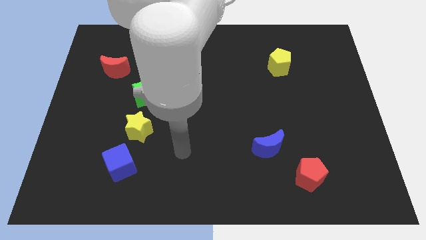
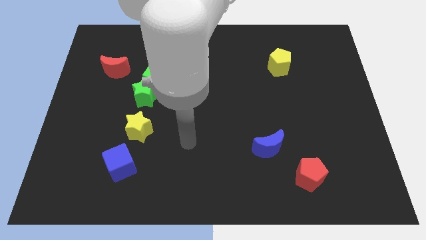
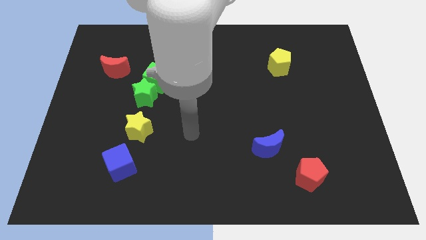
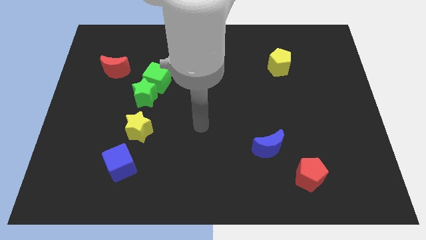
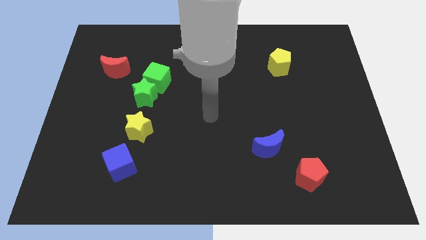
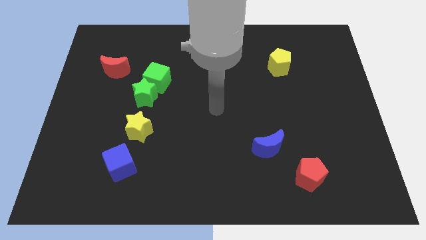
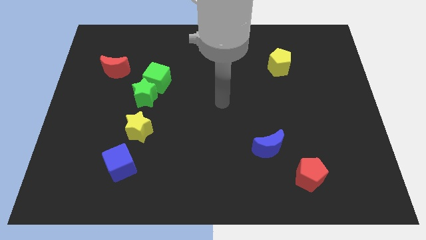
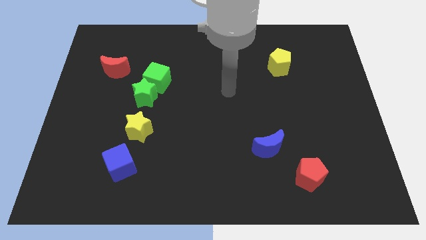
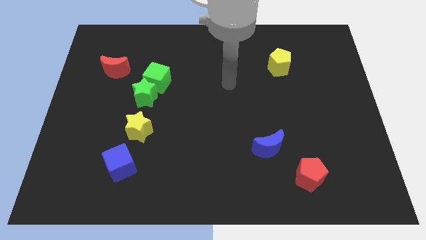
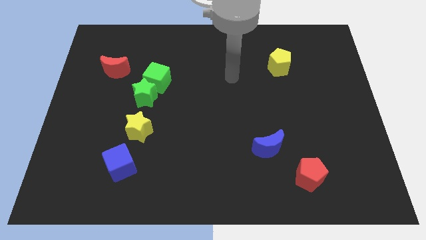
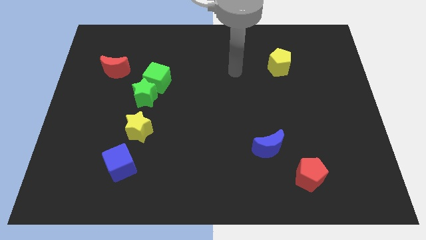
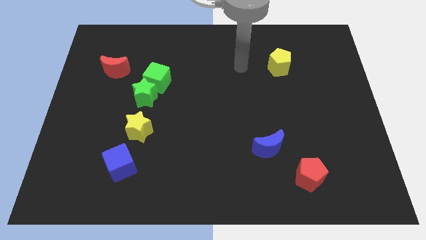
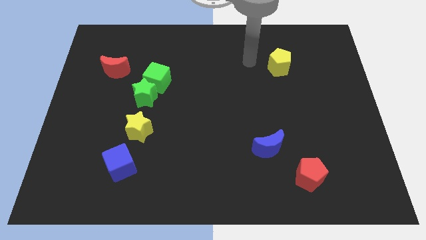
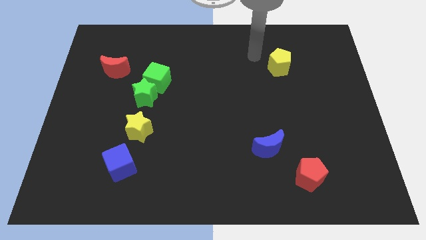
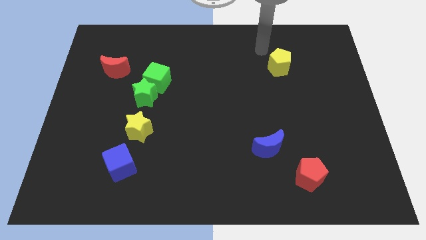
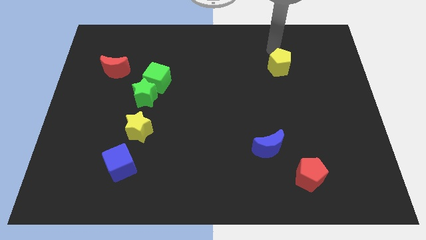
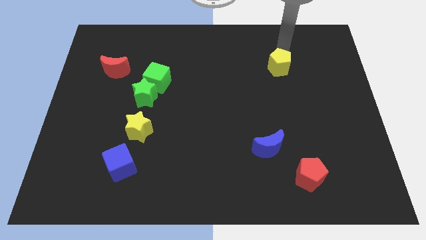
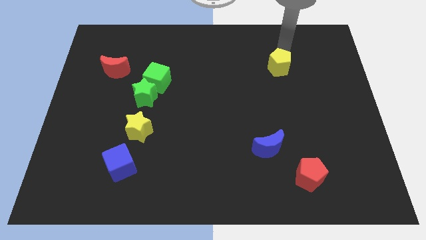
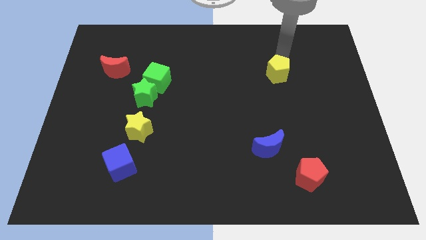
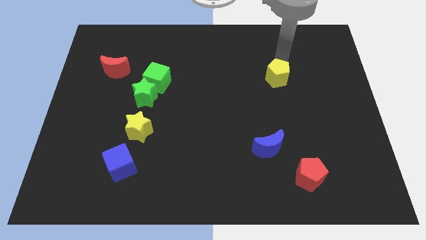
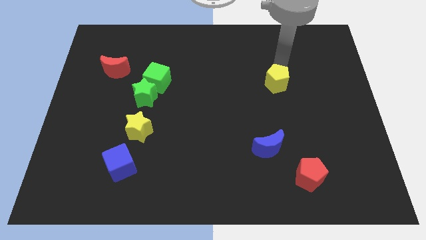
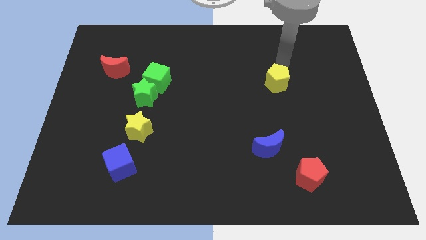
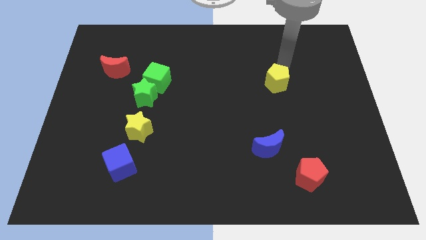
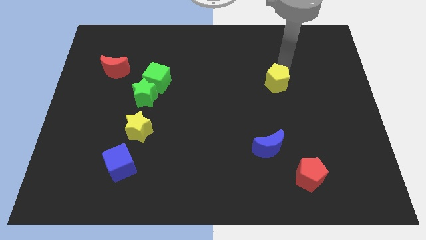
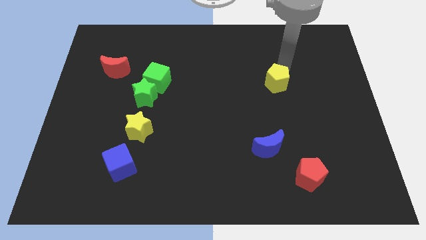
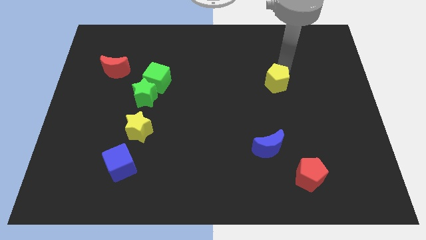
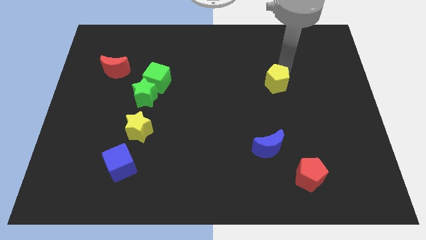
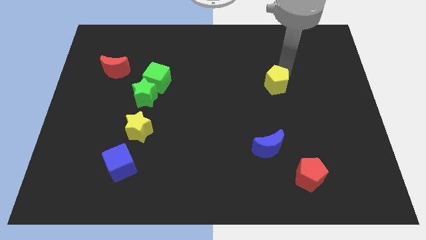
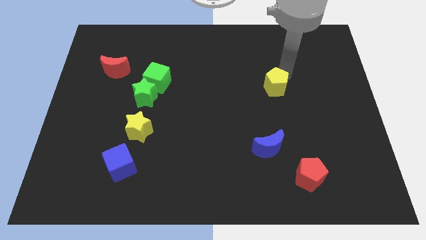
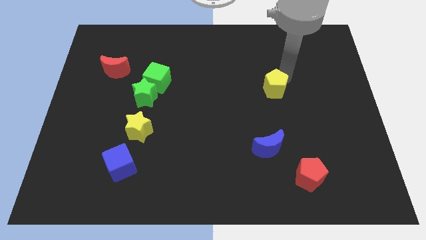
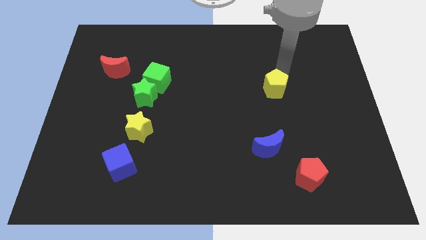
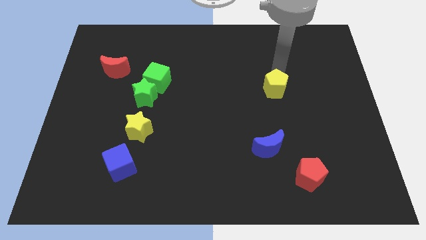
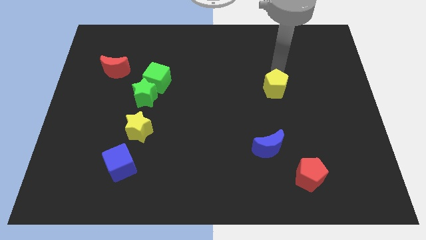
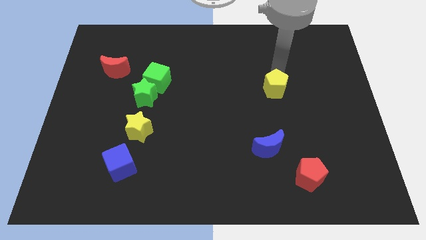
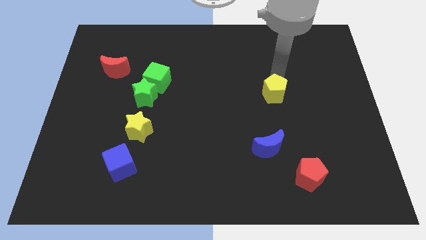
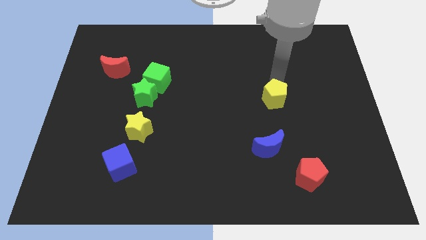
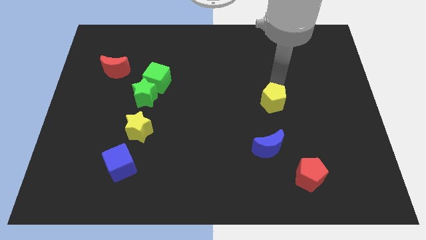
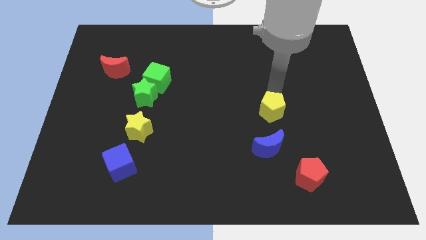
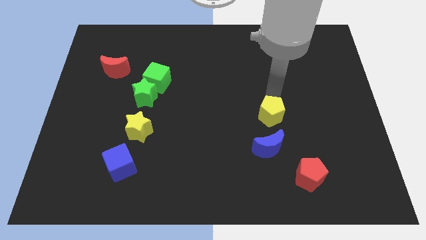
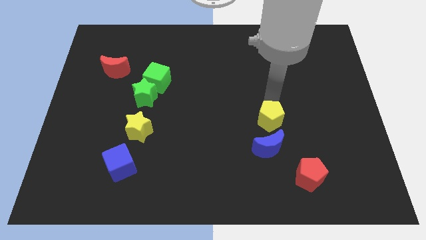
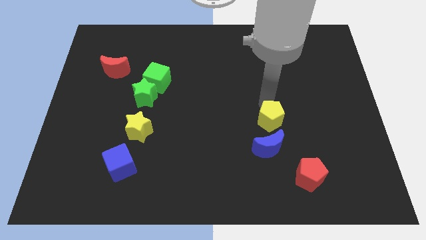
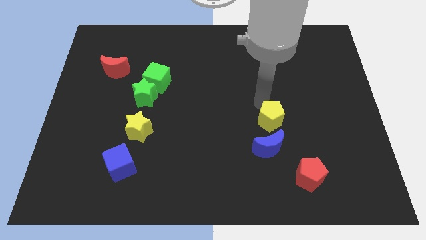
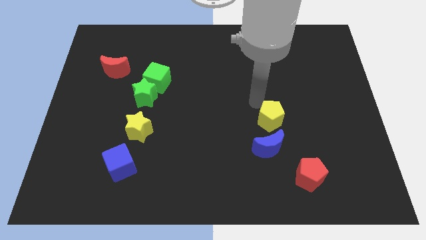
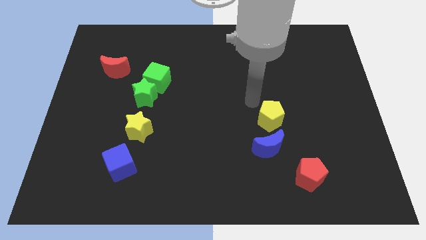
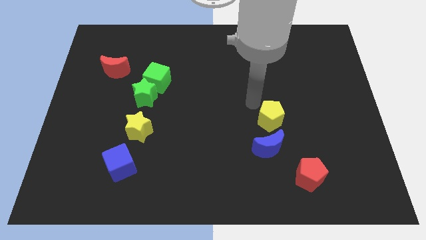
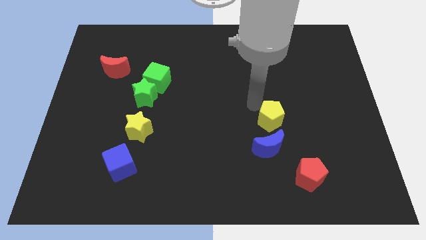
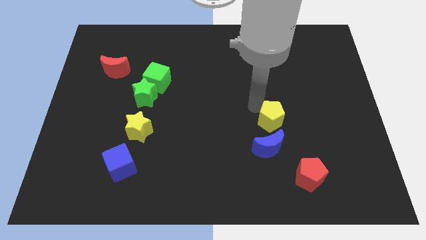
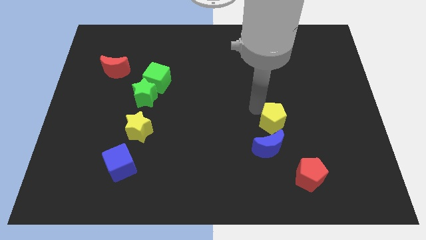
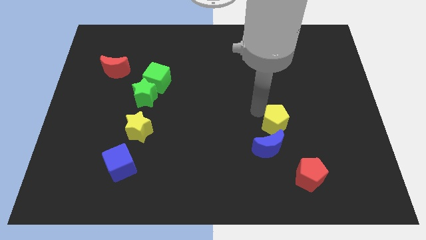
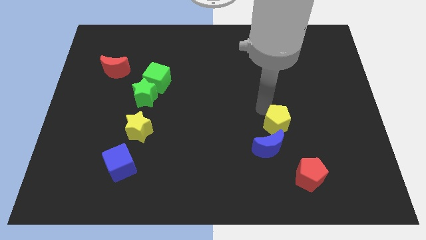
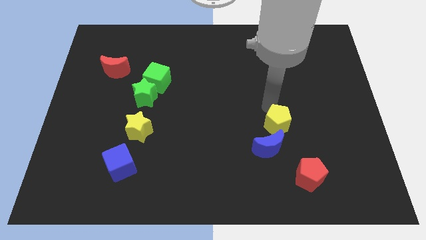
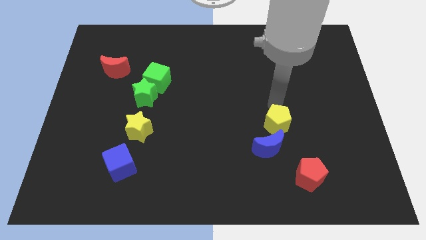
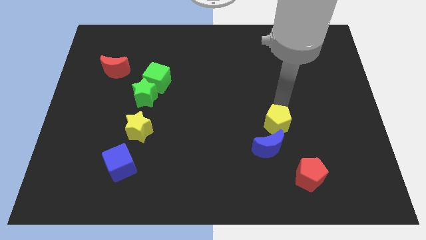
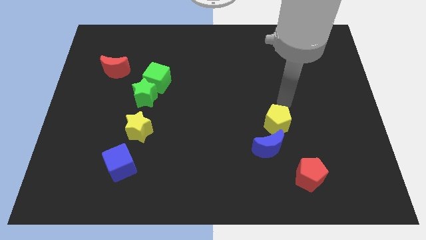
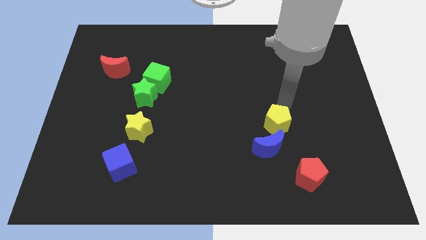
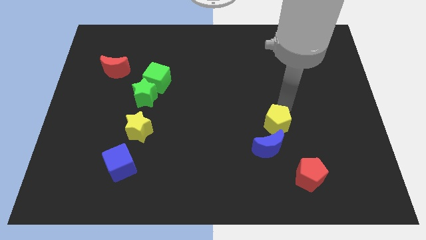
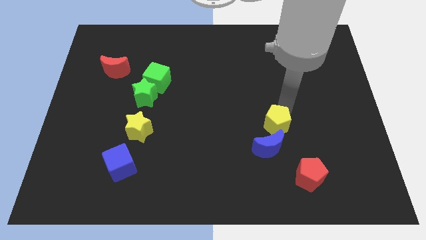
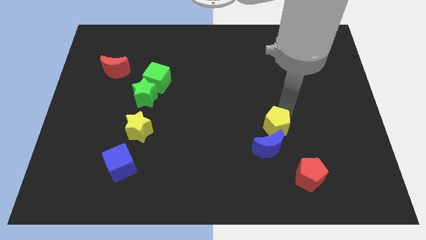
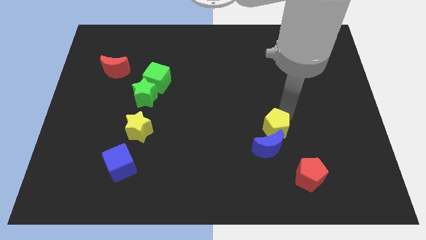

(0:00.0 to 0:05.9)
move the yellow pentagon to the blue moon

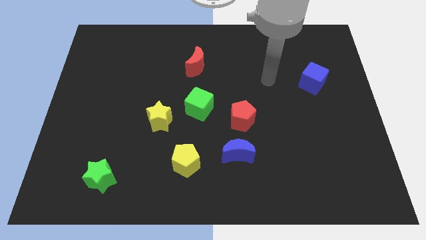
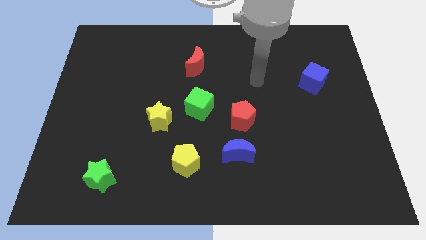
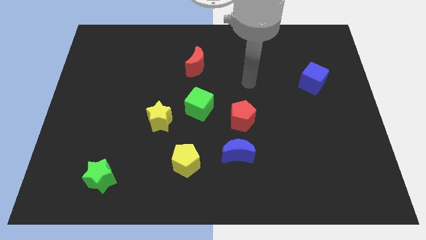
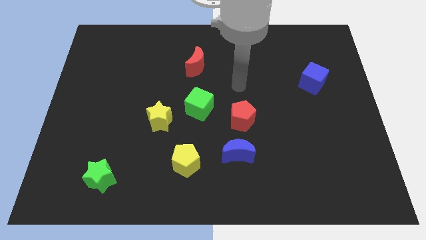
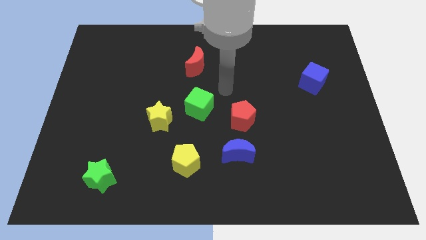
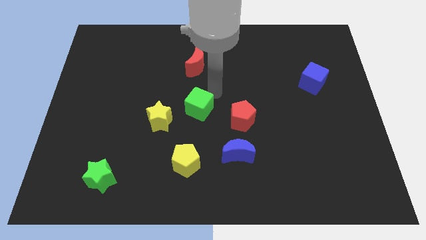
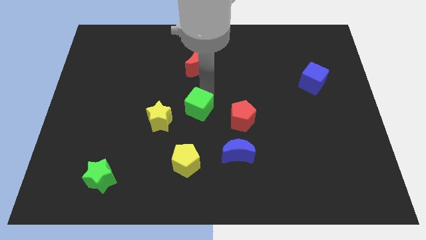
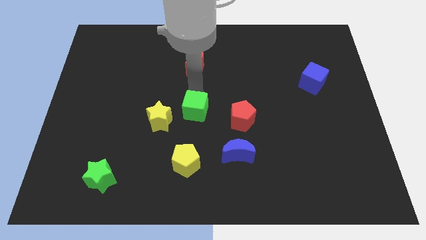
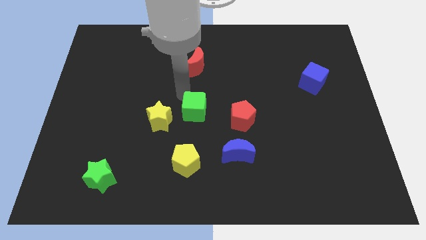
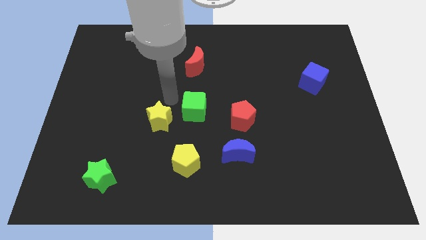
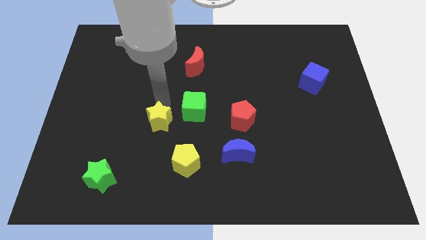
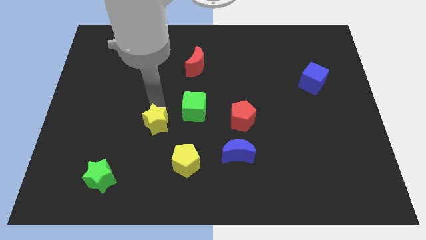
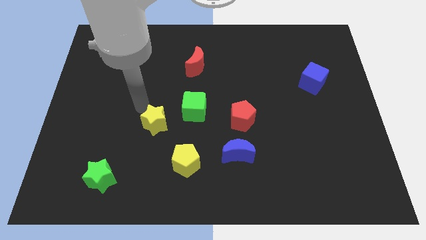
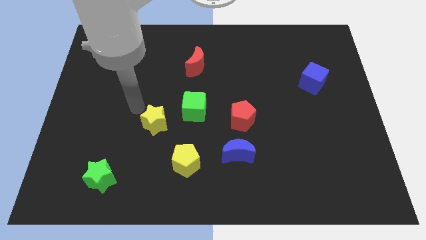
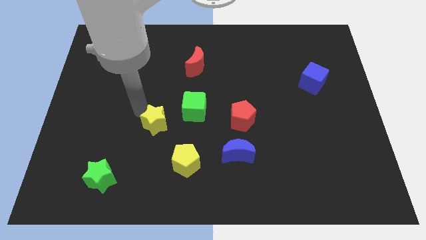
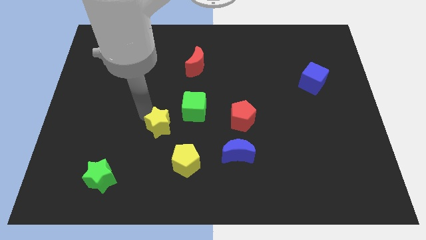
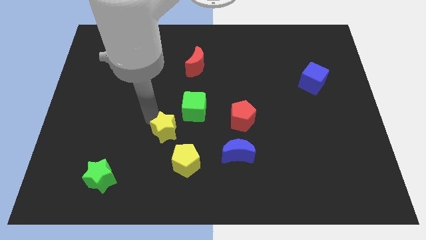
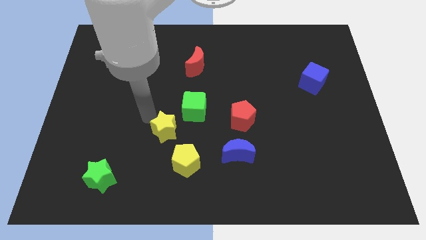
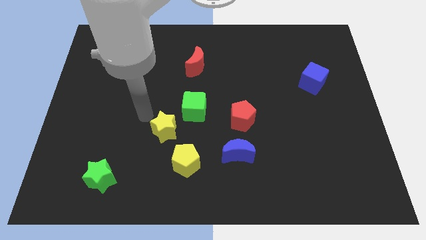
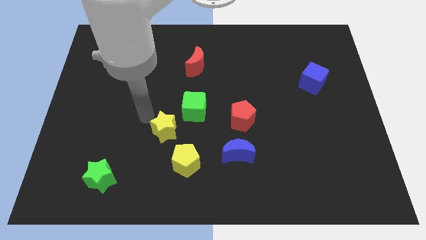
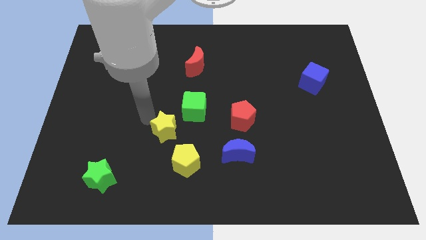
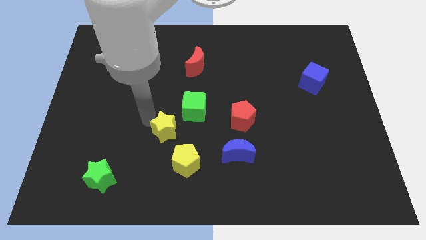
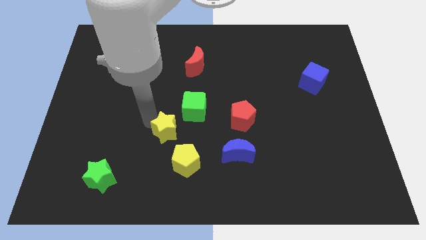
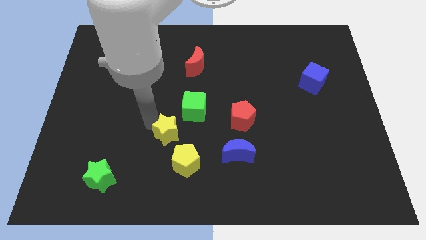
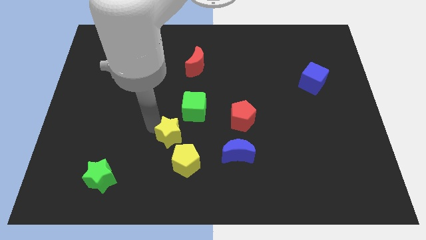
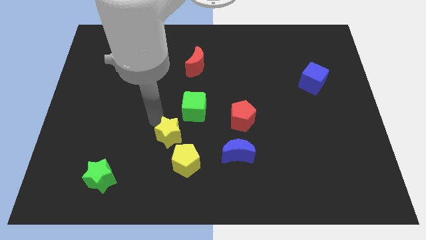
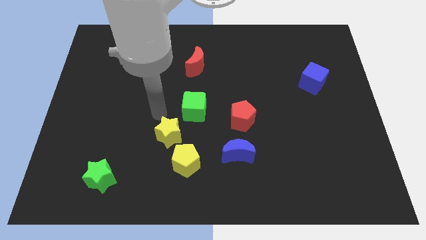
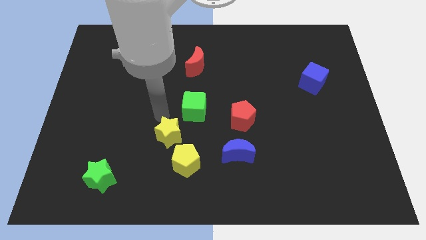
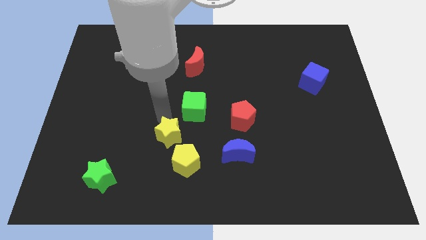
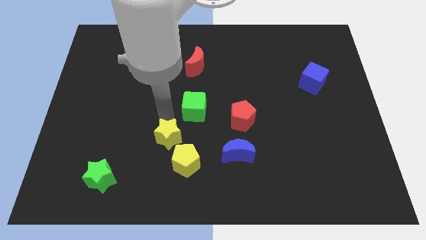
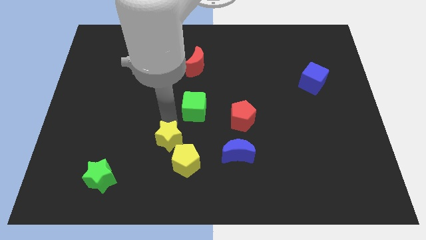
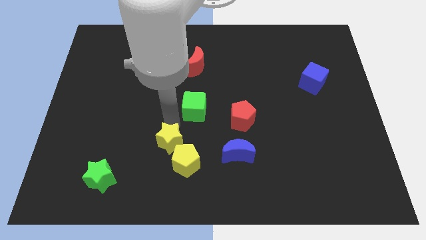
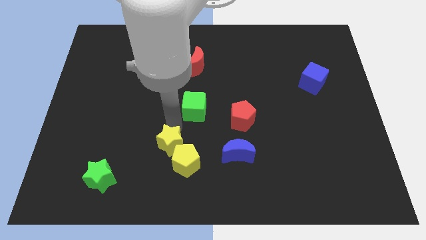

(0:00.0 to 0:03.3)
slide the yellow star next to the yellow pentagon
